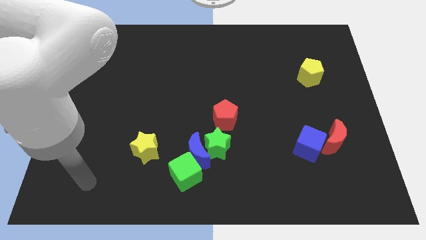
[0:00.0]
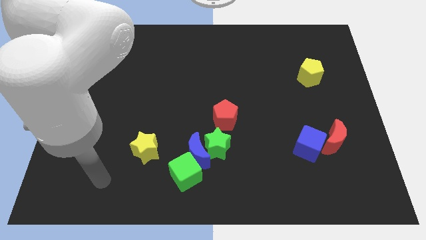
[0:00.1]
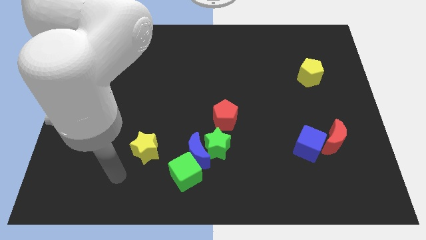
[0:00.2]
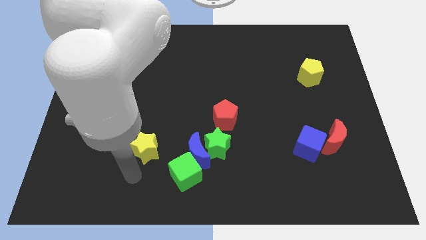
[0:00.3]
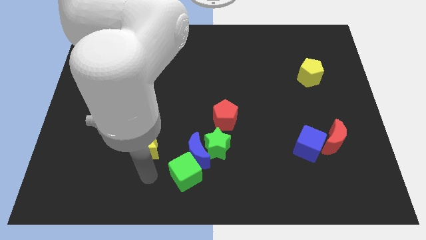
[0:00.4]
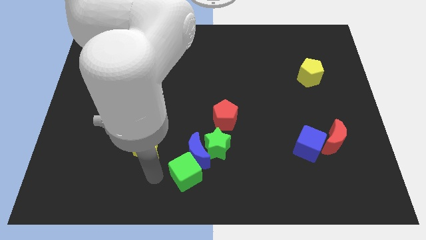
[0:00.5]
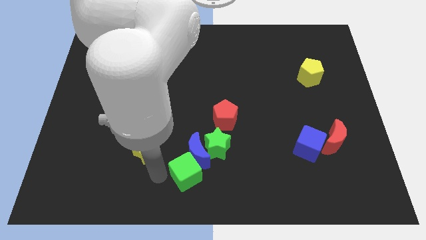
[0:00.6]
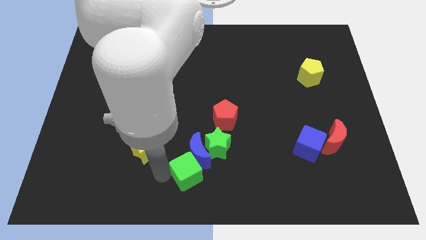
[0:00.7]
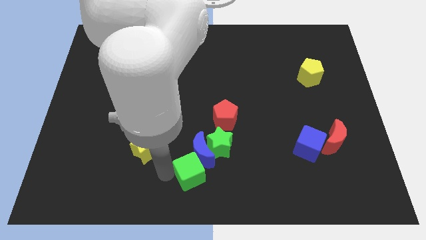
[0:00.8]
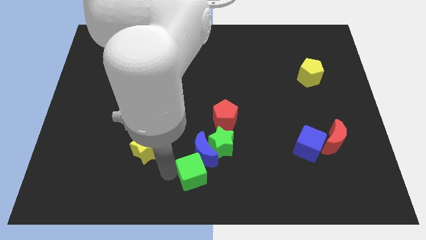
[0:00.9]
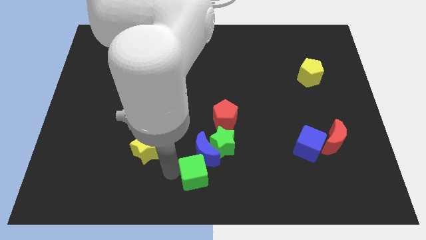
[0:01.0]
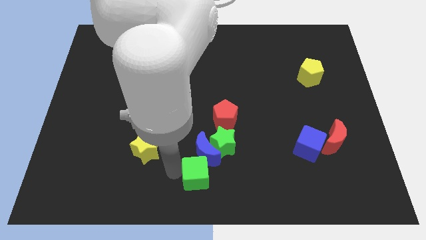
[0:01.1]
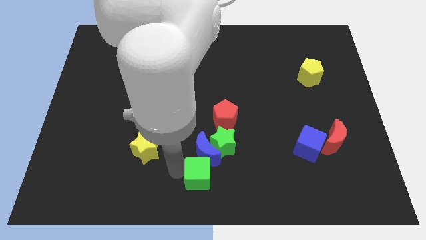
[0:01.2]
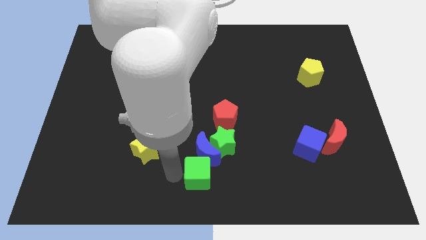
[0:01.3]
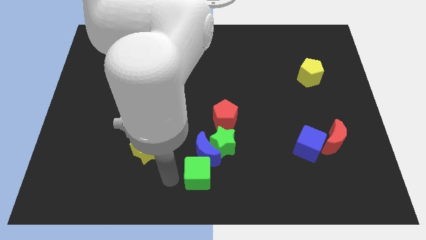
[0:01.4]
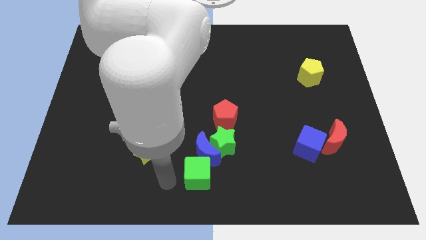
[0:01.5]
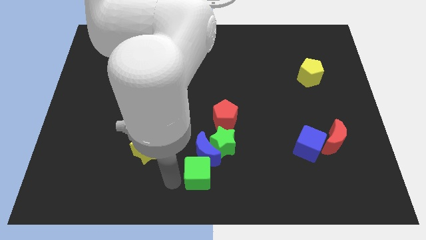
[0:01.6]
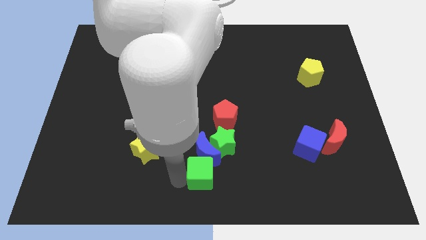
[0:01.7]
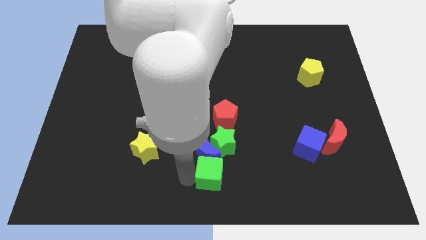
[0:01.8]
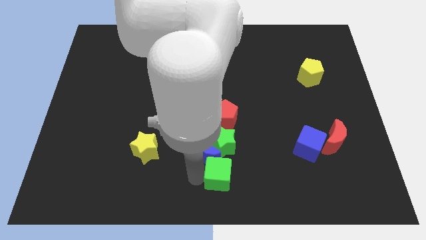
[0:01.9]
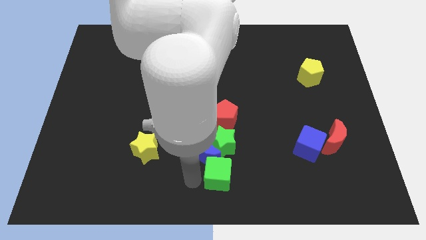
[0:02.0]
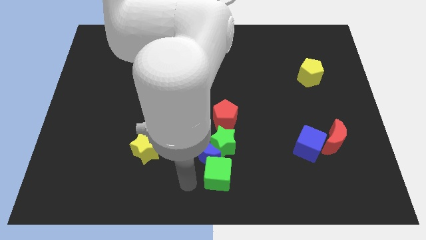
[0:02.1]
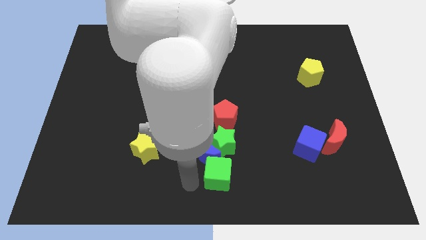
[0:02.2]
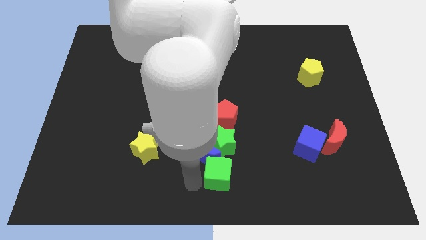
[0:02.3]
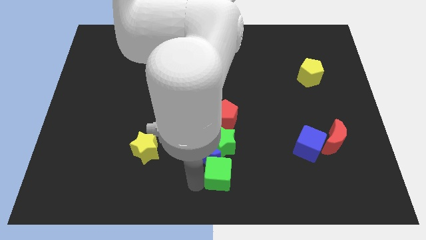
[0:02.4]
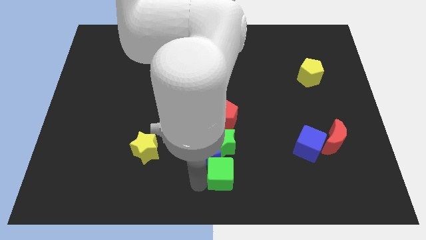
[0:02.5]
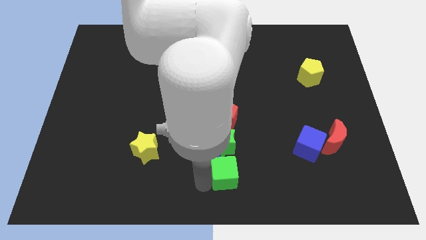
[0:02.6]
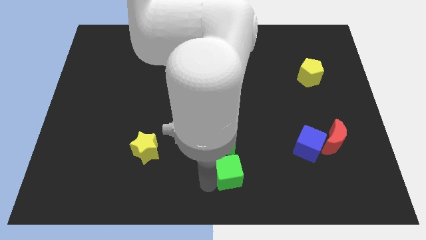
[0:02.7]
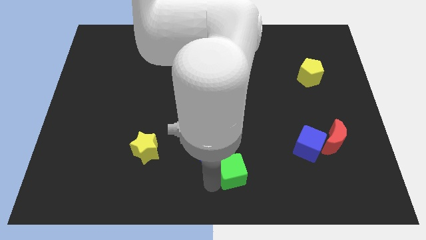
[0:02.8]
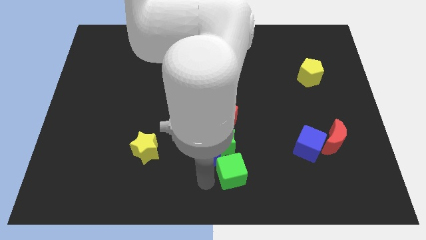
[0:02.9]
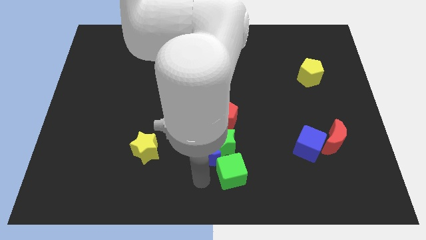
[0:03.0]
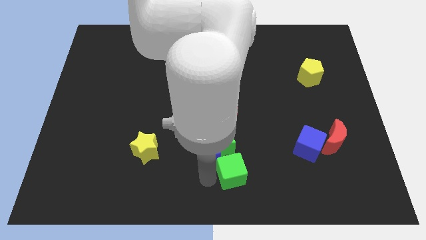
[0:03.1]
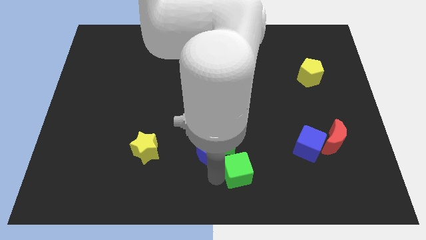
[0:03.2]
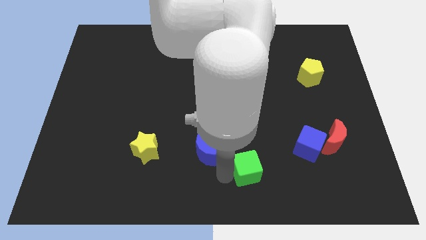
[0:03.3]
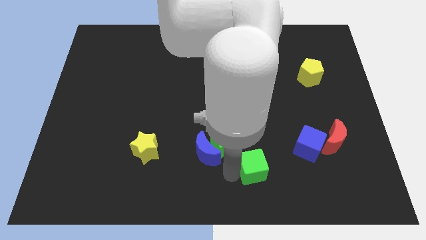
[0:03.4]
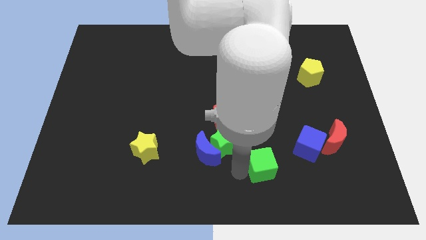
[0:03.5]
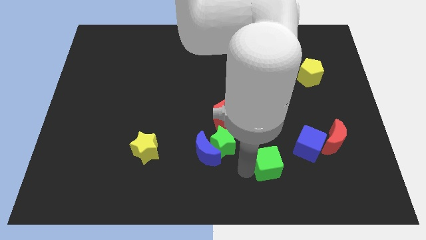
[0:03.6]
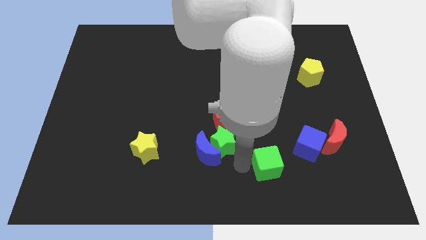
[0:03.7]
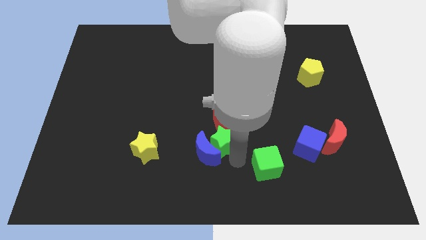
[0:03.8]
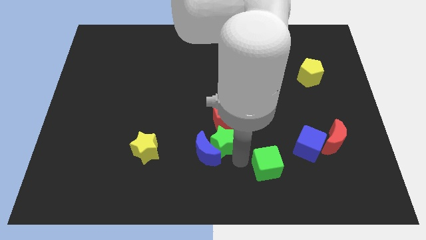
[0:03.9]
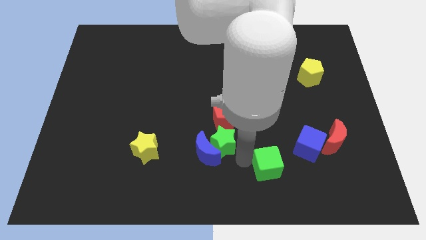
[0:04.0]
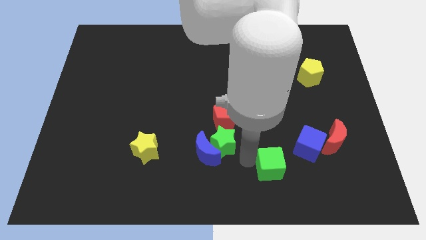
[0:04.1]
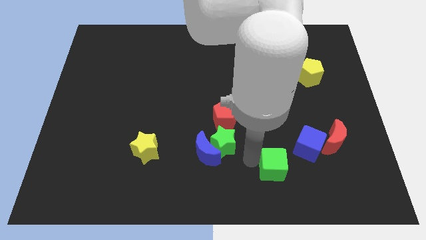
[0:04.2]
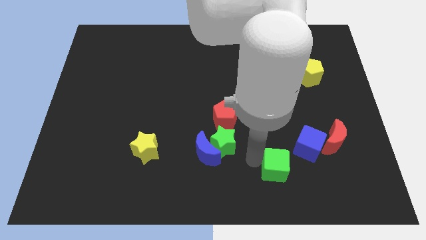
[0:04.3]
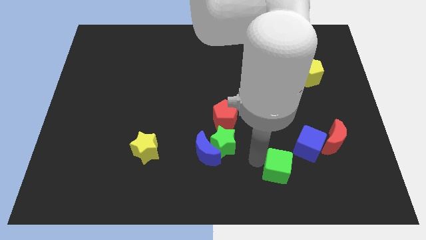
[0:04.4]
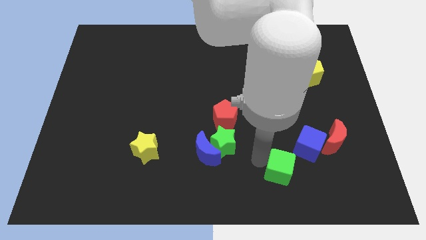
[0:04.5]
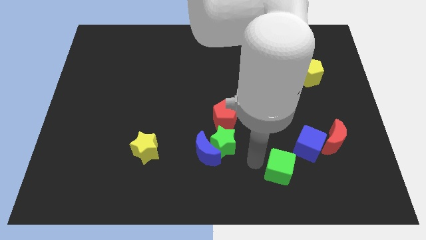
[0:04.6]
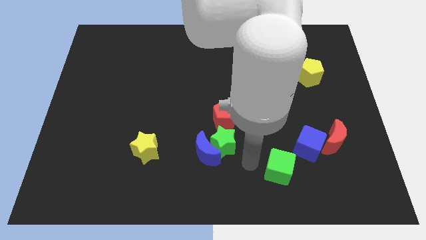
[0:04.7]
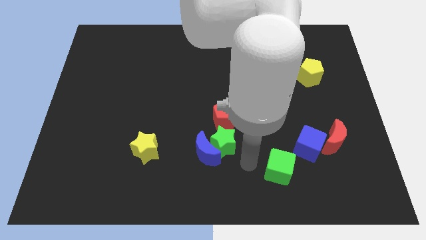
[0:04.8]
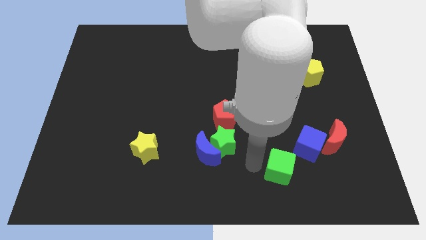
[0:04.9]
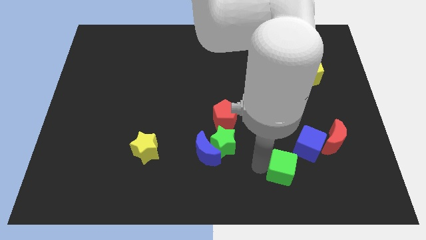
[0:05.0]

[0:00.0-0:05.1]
push the green cube right

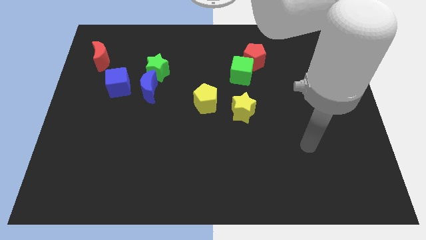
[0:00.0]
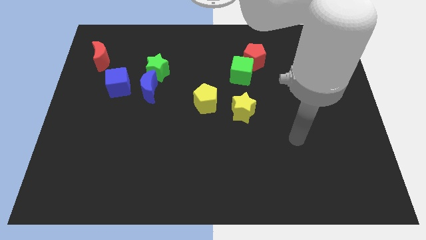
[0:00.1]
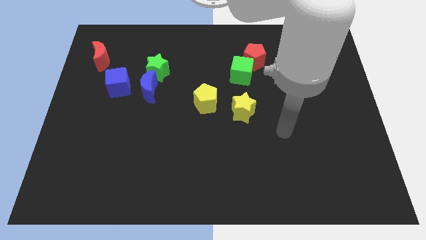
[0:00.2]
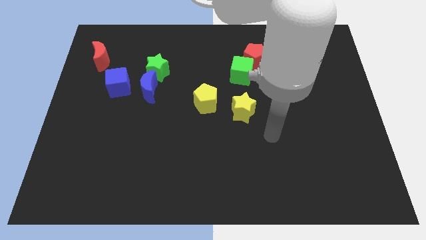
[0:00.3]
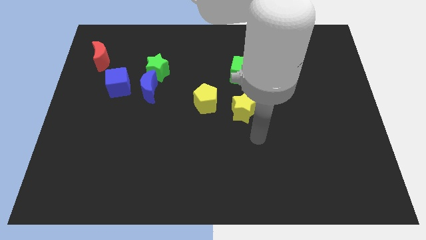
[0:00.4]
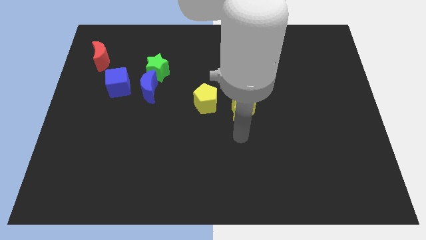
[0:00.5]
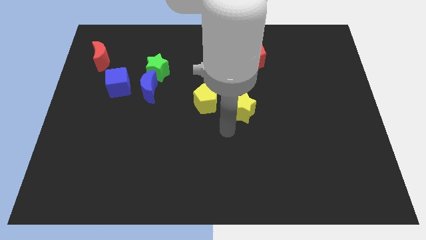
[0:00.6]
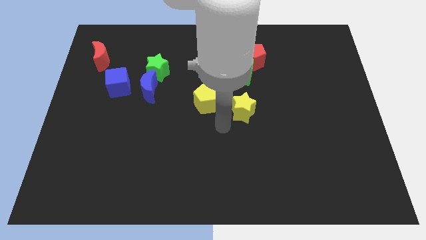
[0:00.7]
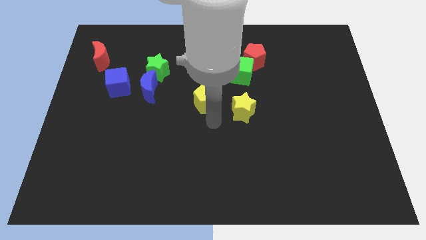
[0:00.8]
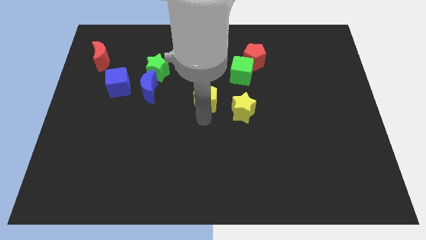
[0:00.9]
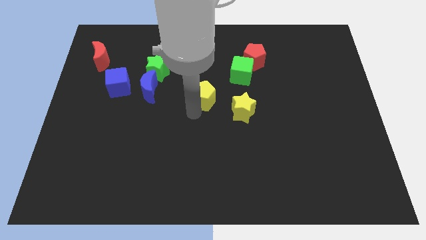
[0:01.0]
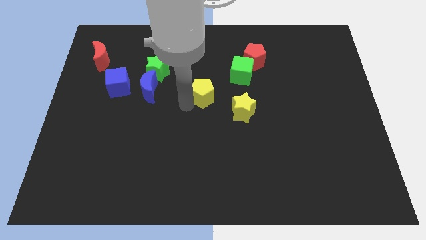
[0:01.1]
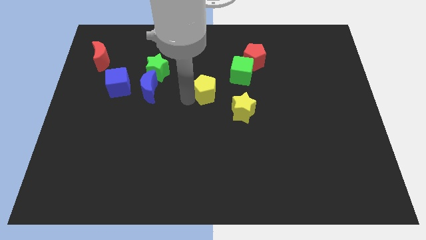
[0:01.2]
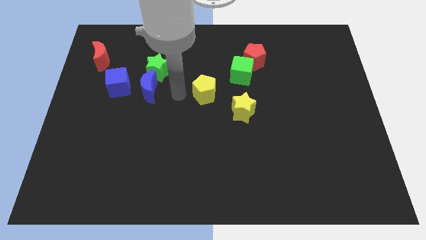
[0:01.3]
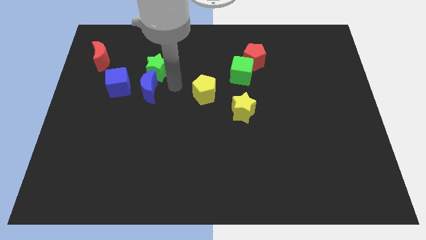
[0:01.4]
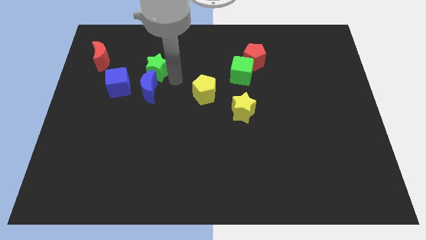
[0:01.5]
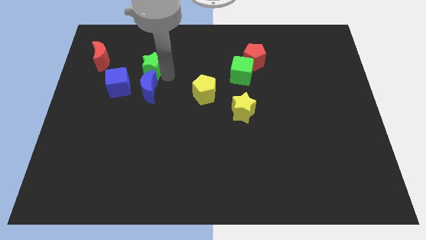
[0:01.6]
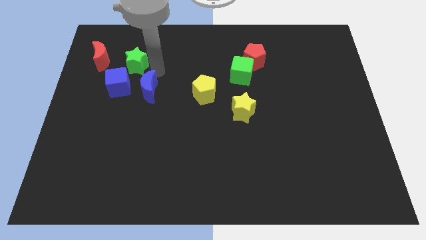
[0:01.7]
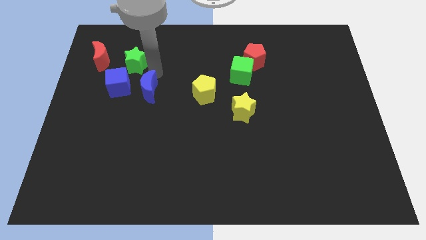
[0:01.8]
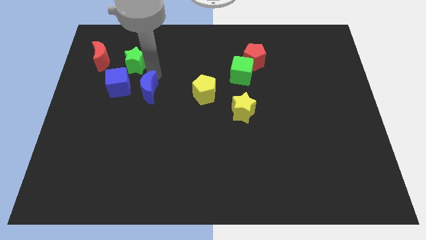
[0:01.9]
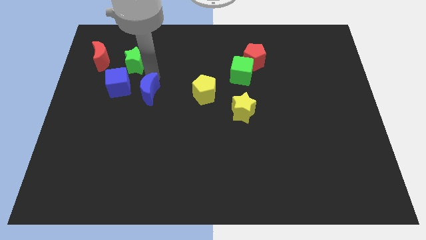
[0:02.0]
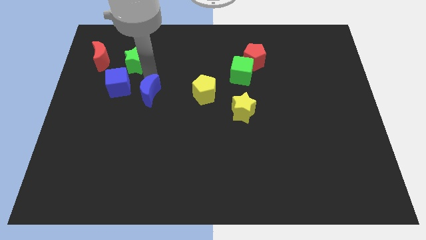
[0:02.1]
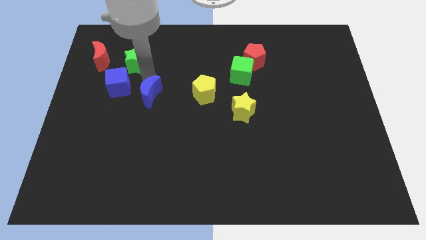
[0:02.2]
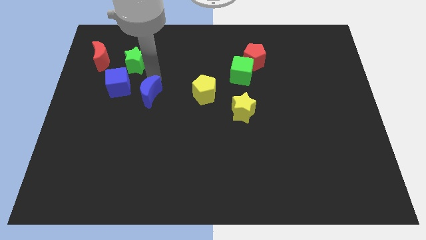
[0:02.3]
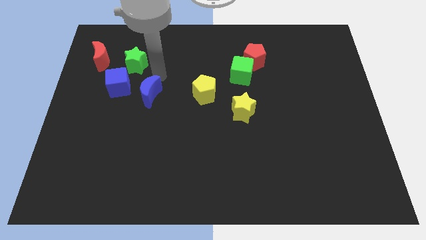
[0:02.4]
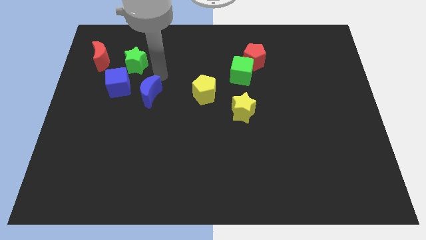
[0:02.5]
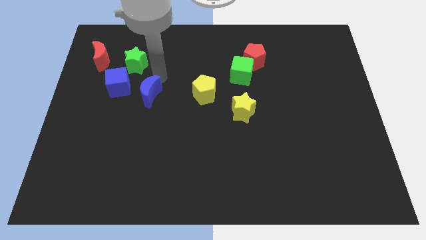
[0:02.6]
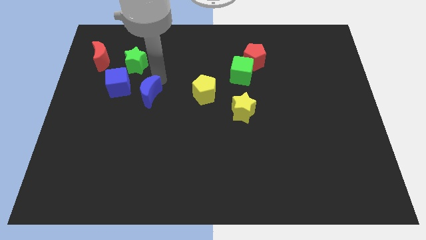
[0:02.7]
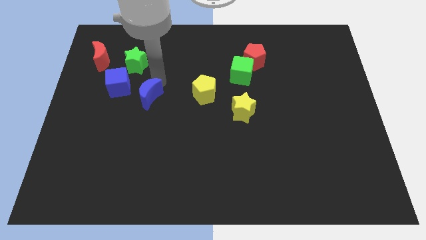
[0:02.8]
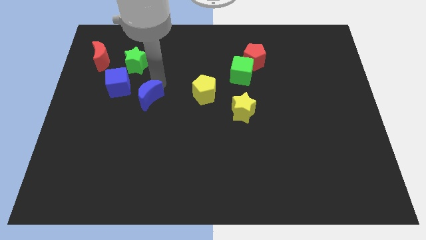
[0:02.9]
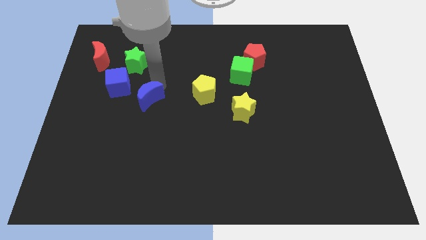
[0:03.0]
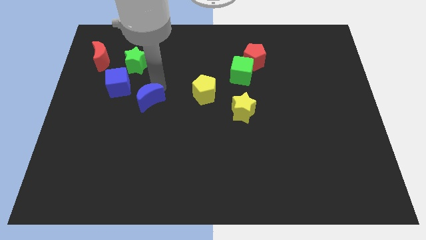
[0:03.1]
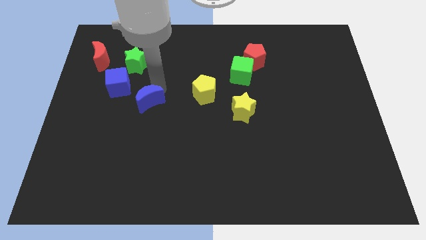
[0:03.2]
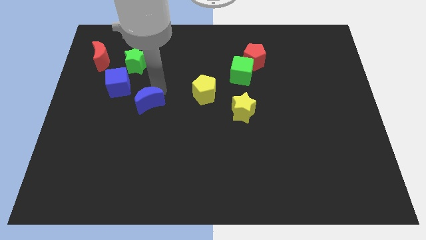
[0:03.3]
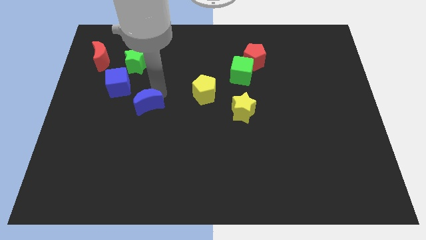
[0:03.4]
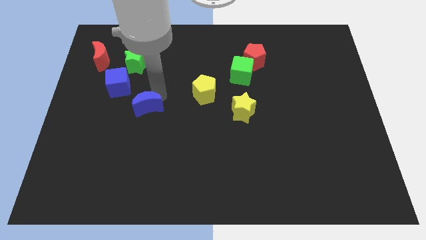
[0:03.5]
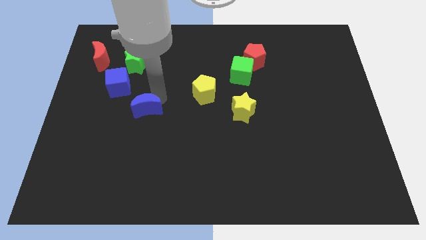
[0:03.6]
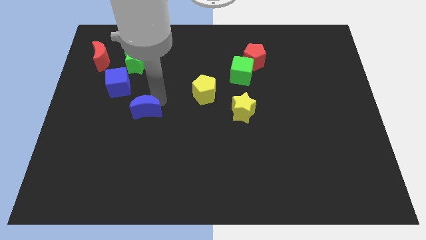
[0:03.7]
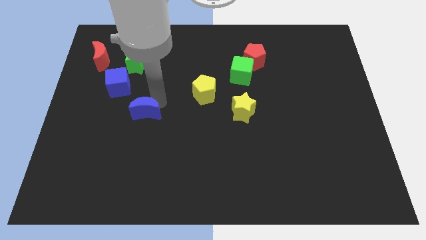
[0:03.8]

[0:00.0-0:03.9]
move the blue moon somewhat downwards
